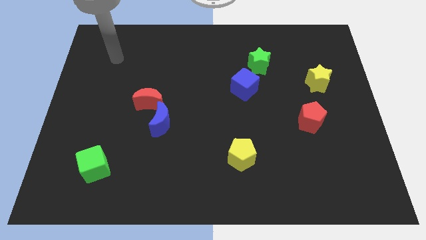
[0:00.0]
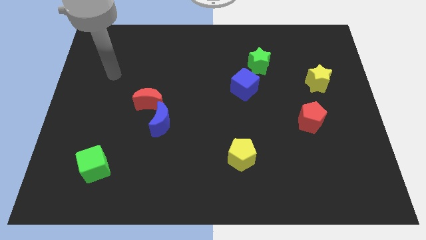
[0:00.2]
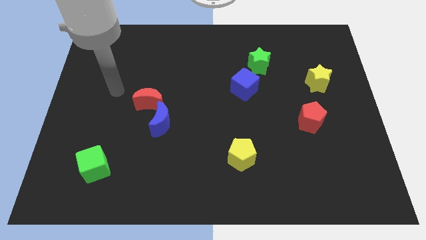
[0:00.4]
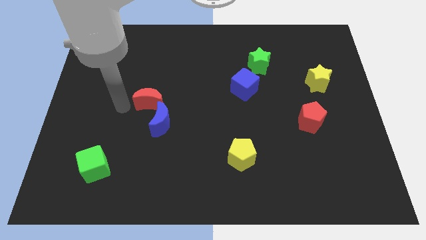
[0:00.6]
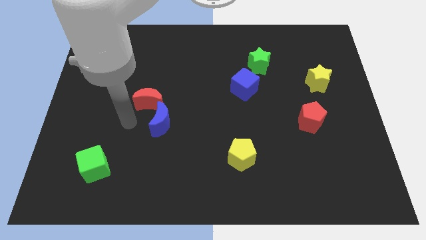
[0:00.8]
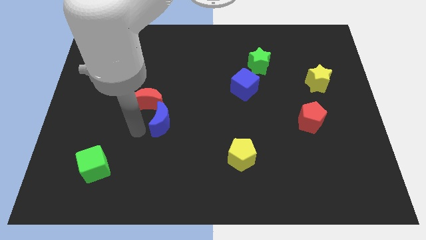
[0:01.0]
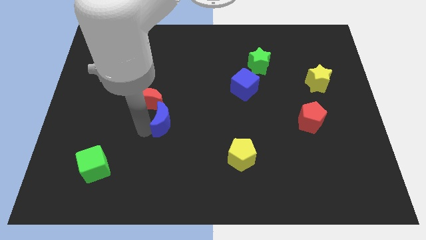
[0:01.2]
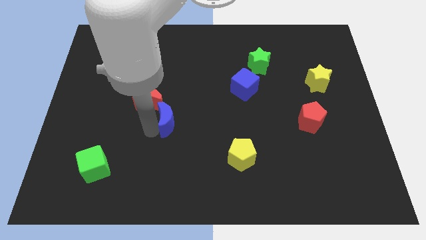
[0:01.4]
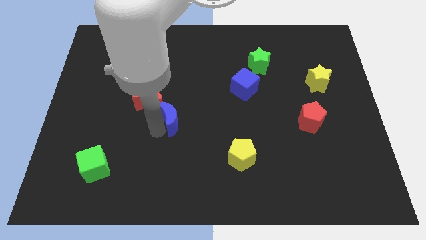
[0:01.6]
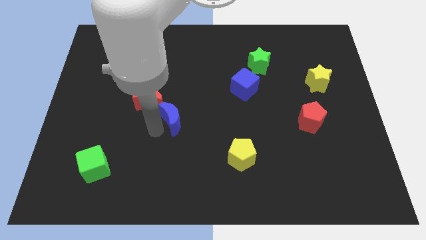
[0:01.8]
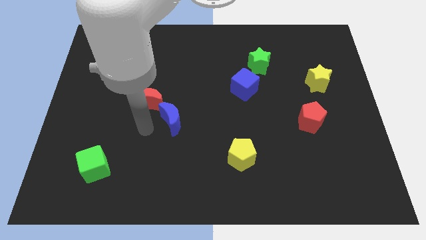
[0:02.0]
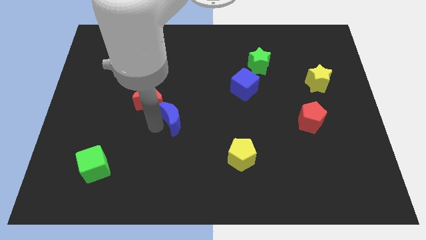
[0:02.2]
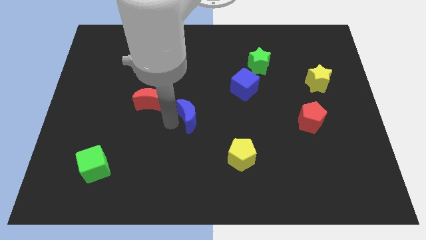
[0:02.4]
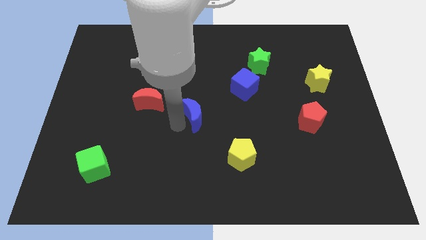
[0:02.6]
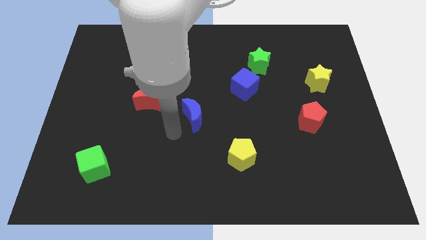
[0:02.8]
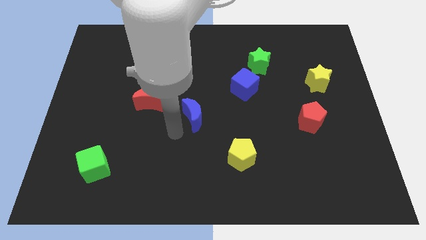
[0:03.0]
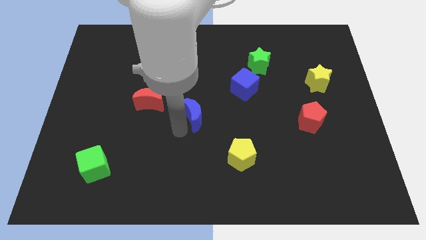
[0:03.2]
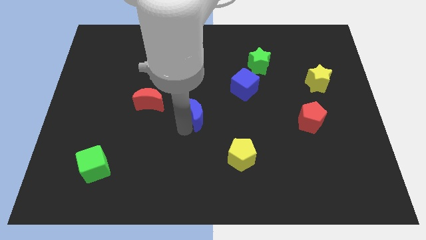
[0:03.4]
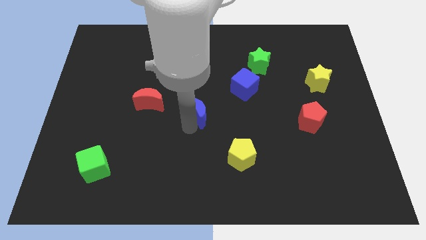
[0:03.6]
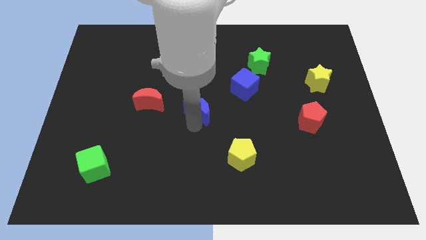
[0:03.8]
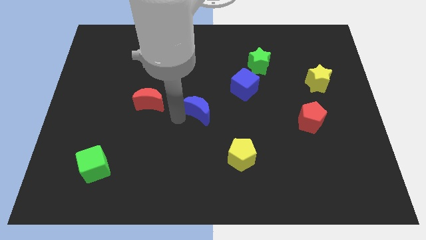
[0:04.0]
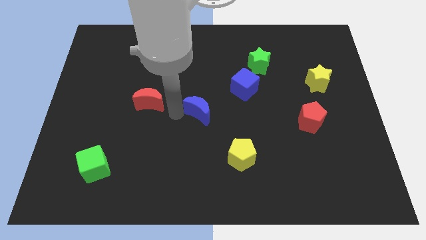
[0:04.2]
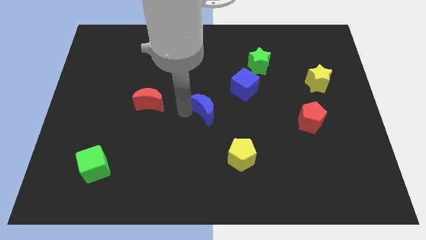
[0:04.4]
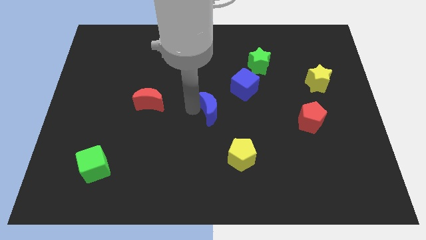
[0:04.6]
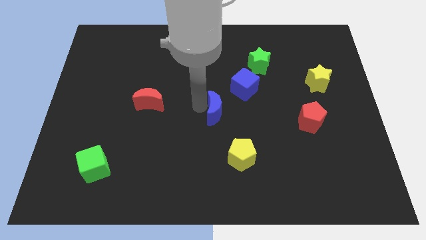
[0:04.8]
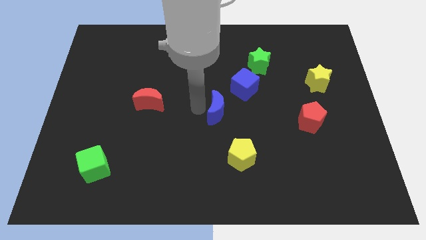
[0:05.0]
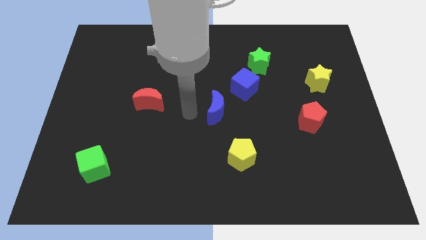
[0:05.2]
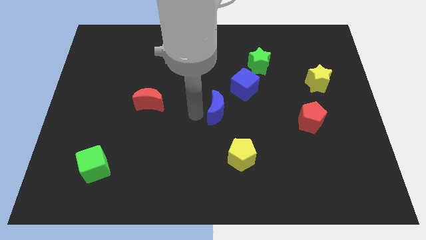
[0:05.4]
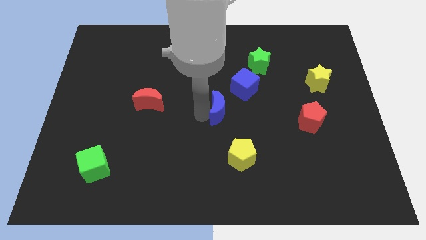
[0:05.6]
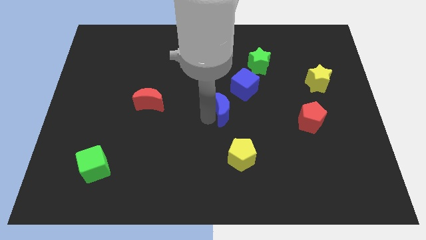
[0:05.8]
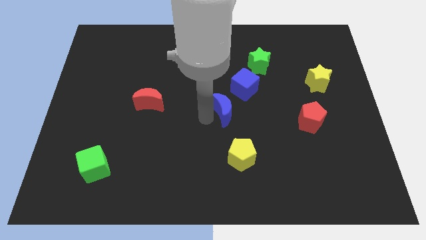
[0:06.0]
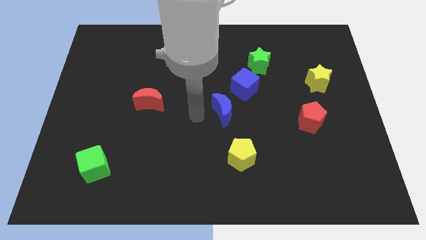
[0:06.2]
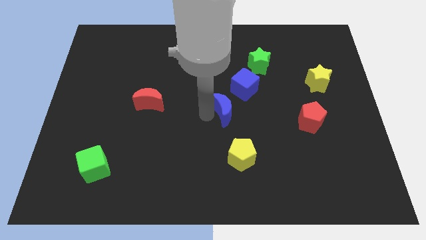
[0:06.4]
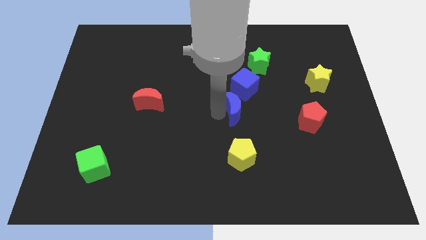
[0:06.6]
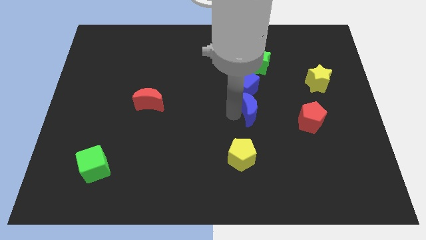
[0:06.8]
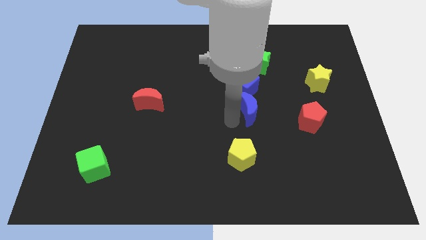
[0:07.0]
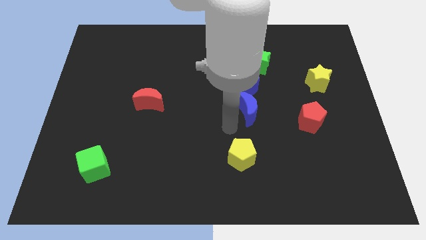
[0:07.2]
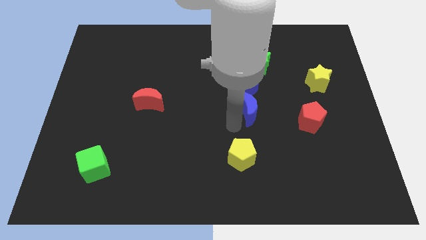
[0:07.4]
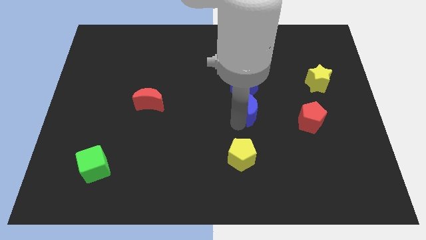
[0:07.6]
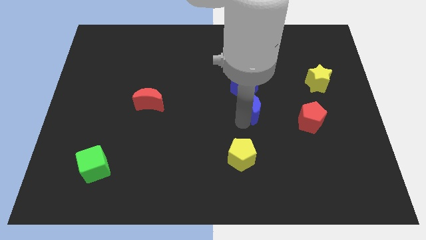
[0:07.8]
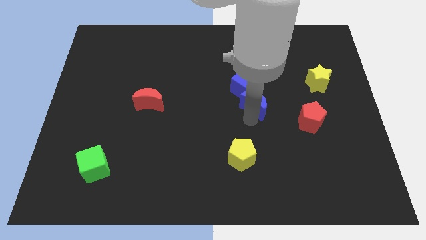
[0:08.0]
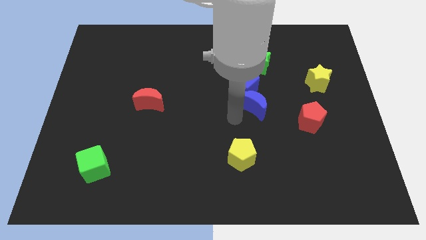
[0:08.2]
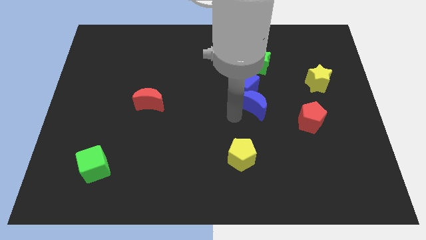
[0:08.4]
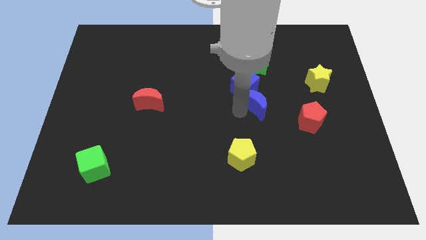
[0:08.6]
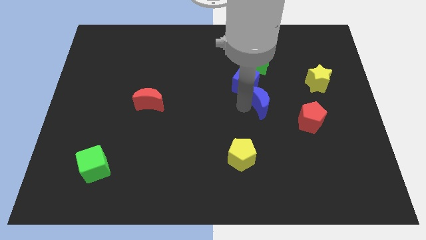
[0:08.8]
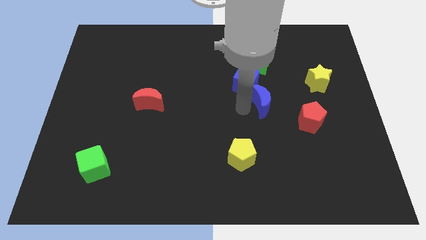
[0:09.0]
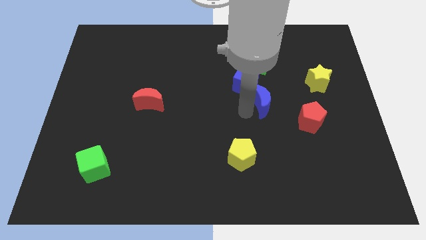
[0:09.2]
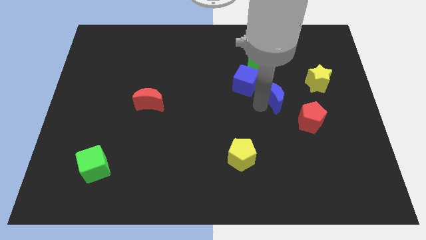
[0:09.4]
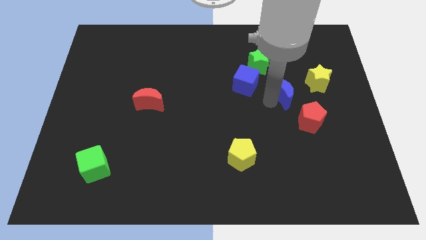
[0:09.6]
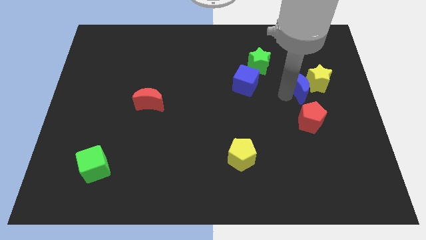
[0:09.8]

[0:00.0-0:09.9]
slide the blue moon close to the yellow star

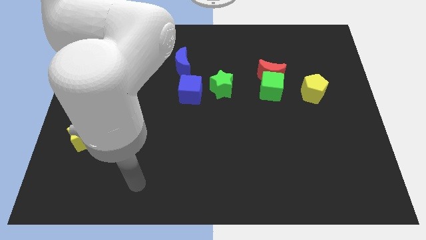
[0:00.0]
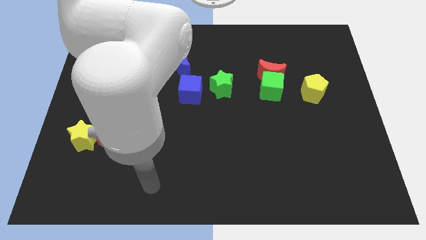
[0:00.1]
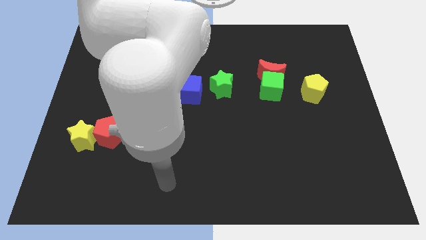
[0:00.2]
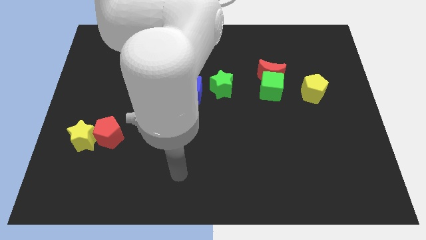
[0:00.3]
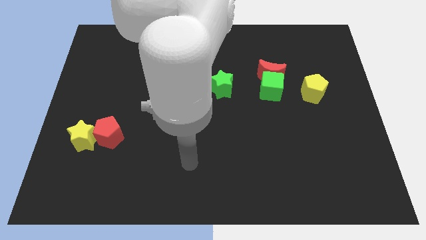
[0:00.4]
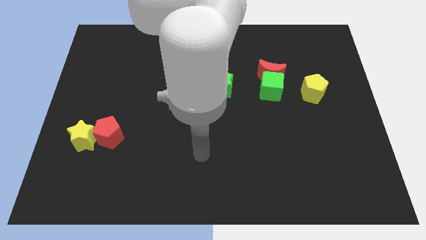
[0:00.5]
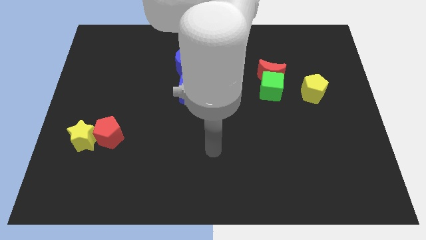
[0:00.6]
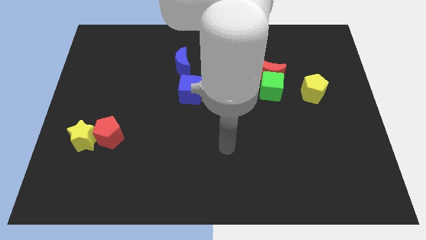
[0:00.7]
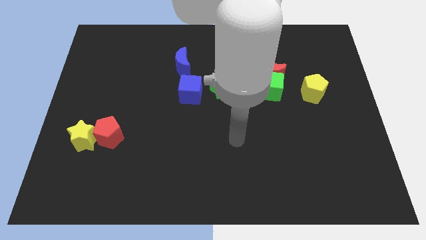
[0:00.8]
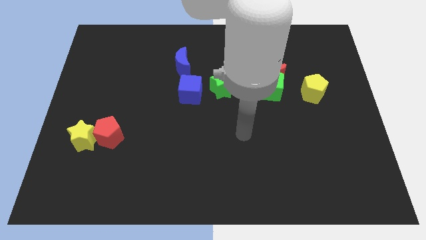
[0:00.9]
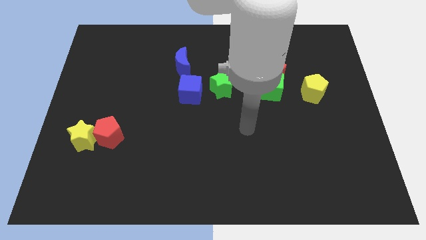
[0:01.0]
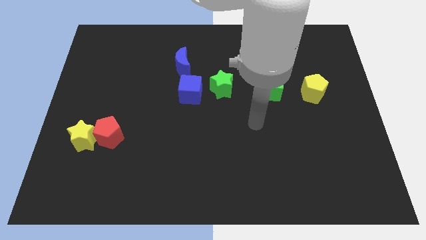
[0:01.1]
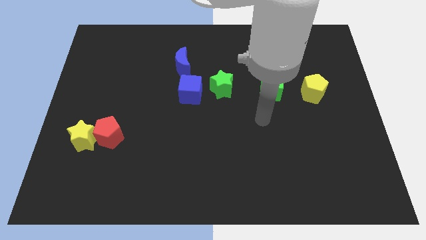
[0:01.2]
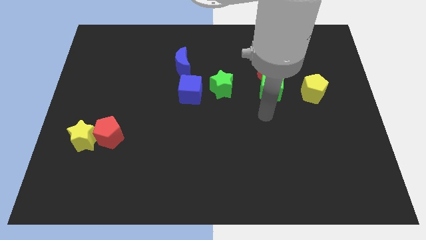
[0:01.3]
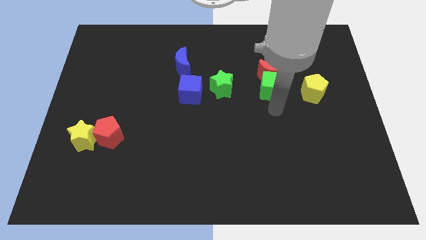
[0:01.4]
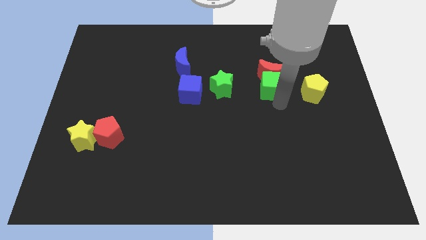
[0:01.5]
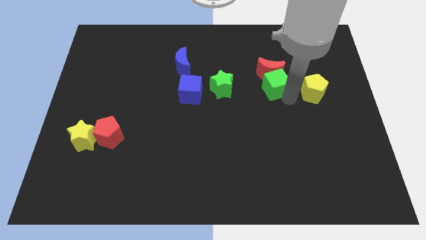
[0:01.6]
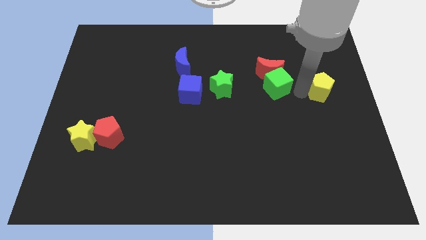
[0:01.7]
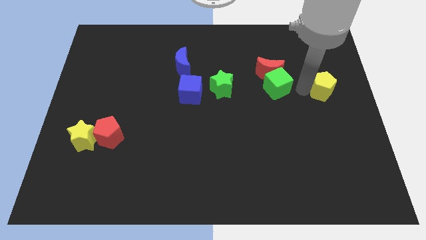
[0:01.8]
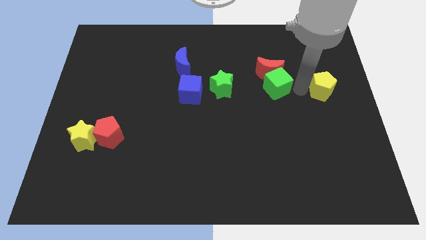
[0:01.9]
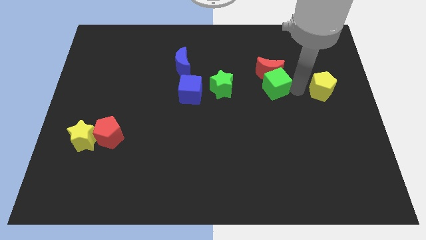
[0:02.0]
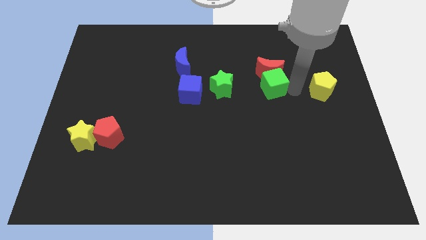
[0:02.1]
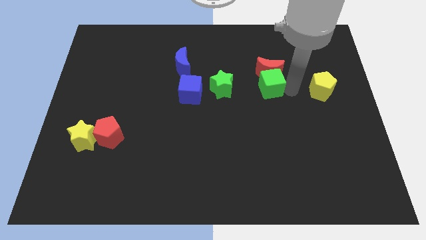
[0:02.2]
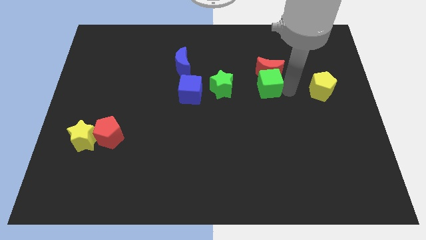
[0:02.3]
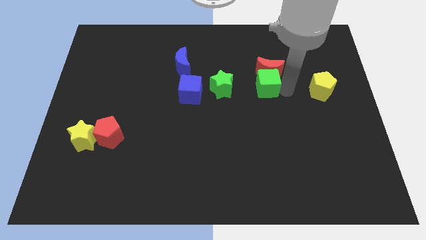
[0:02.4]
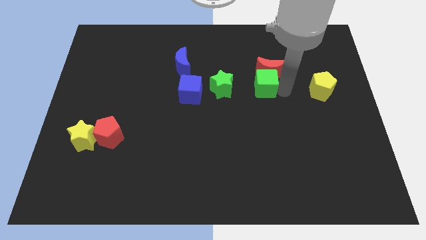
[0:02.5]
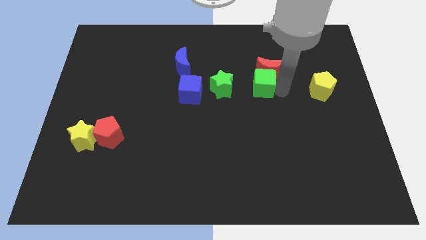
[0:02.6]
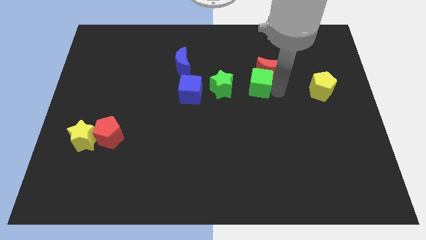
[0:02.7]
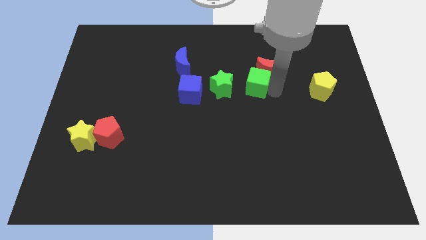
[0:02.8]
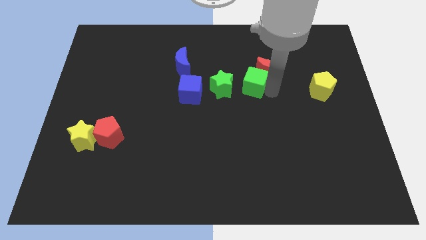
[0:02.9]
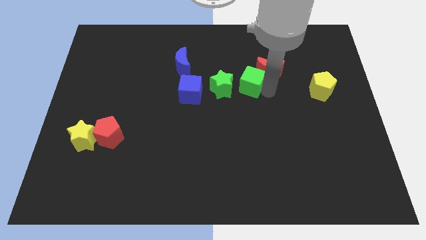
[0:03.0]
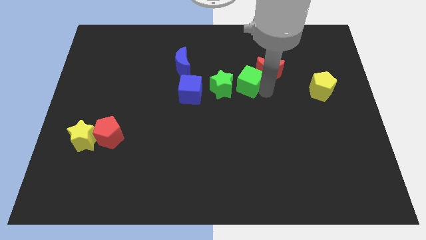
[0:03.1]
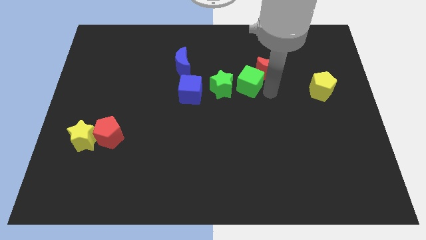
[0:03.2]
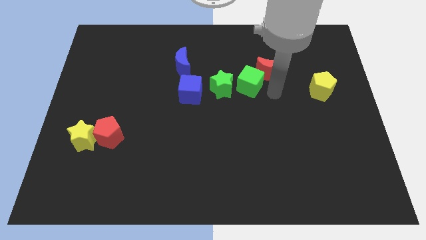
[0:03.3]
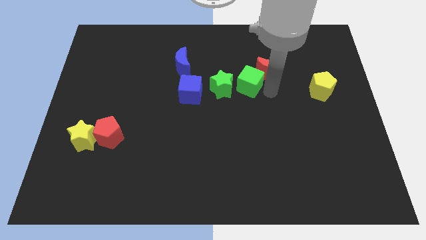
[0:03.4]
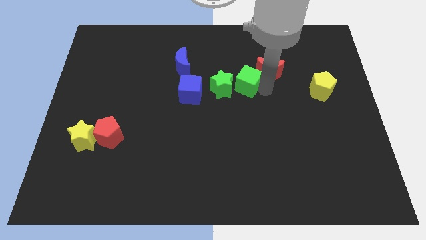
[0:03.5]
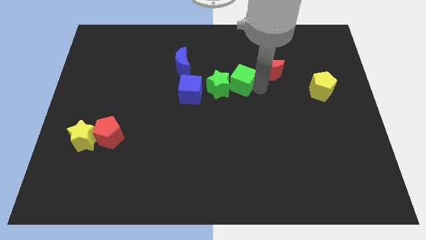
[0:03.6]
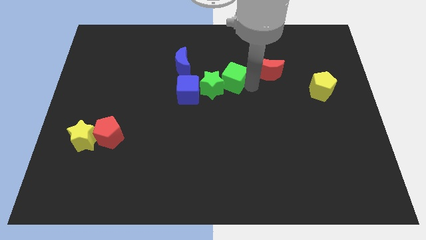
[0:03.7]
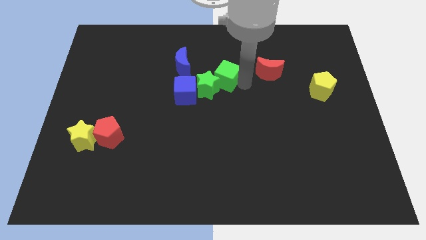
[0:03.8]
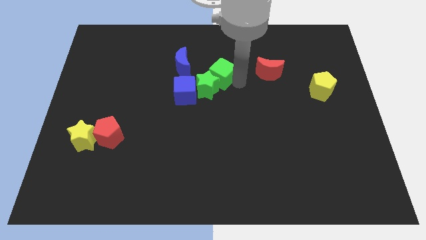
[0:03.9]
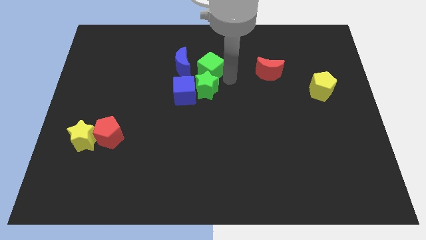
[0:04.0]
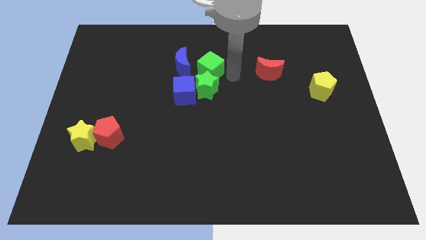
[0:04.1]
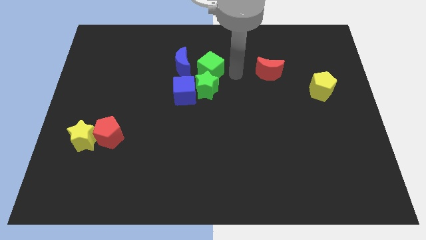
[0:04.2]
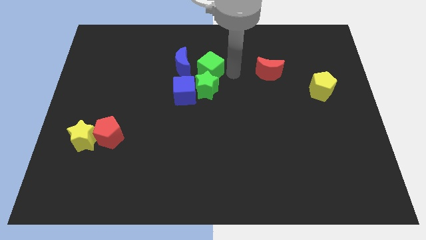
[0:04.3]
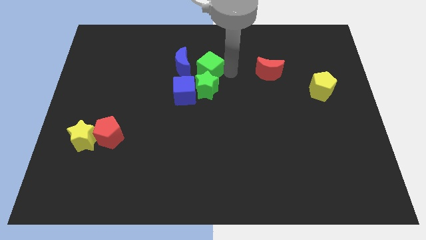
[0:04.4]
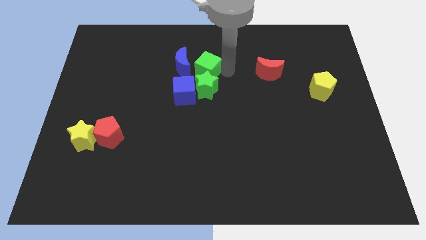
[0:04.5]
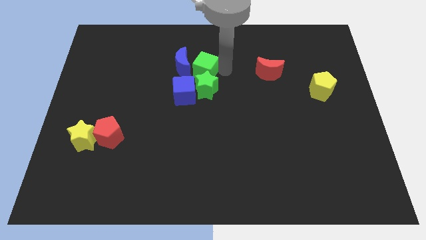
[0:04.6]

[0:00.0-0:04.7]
move the green cube towards the blue moon
